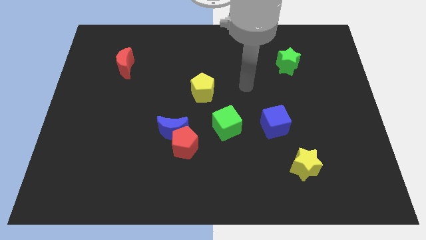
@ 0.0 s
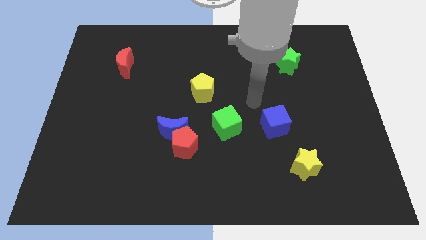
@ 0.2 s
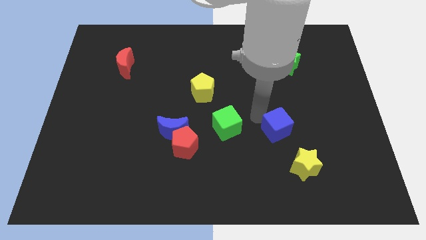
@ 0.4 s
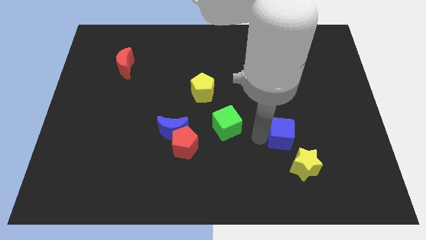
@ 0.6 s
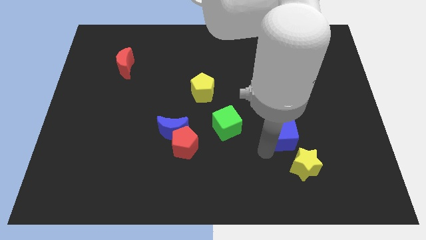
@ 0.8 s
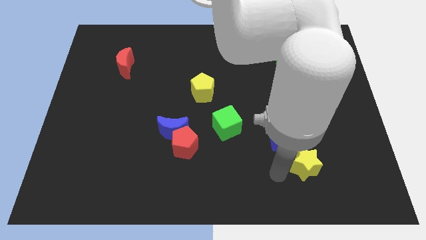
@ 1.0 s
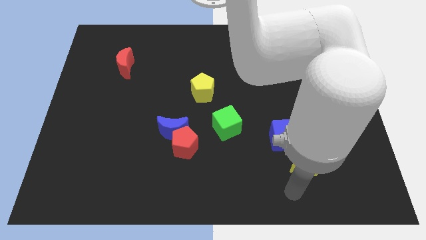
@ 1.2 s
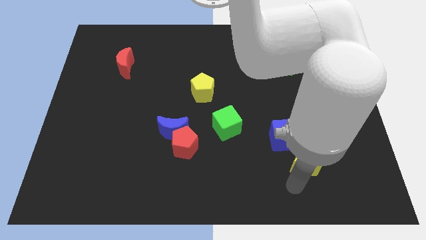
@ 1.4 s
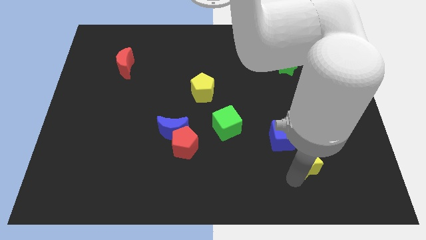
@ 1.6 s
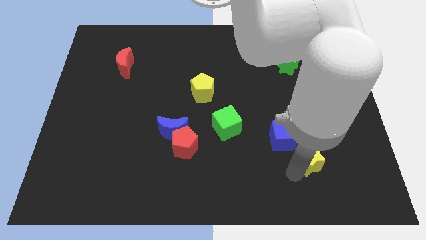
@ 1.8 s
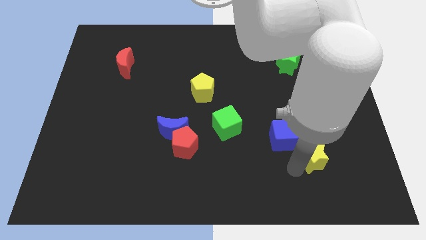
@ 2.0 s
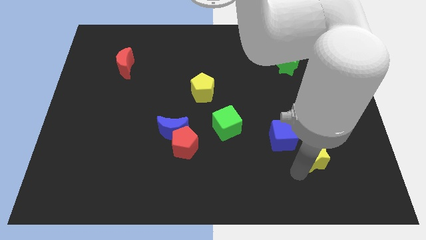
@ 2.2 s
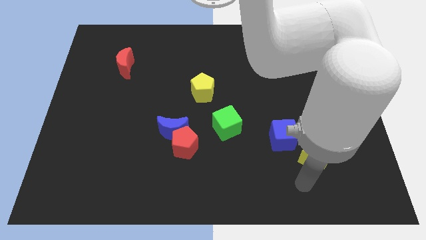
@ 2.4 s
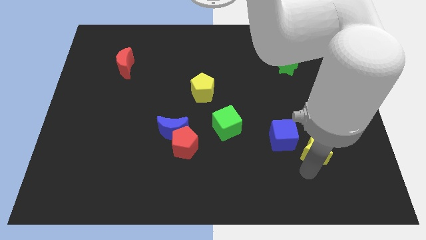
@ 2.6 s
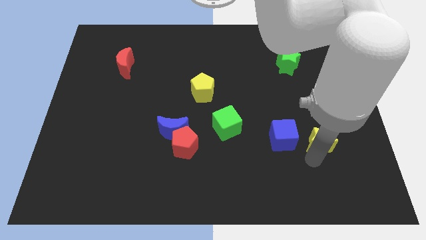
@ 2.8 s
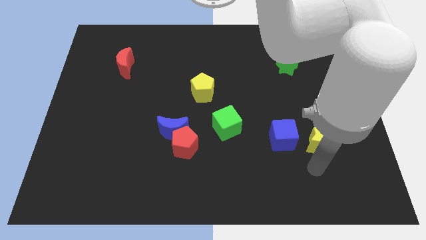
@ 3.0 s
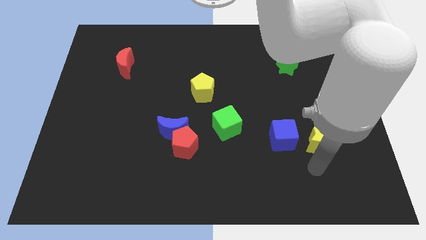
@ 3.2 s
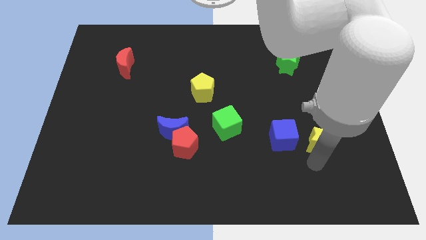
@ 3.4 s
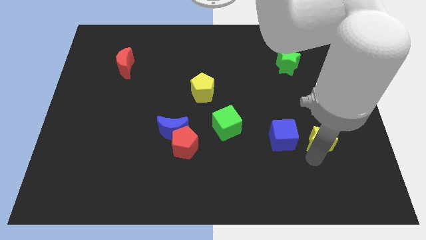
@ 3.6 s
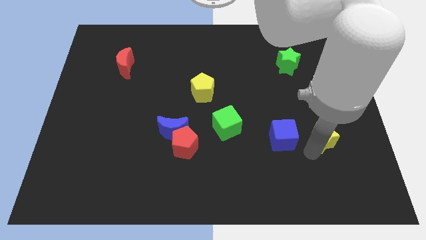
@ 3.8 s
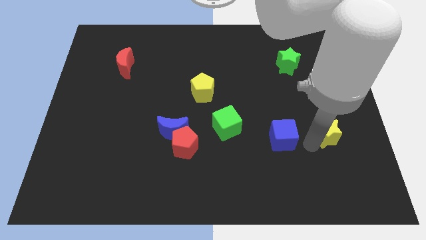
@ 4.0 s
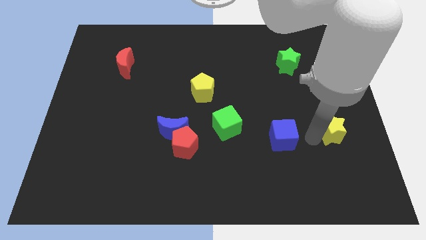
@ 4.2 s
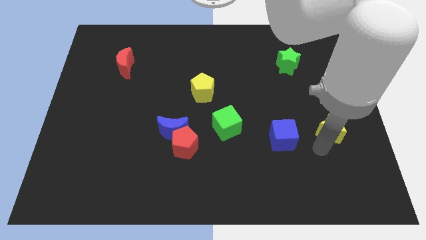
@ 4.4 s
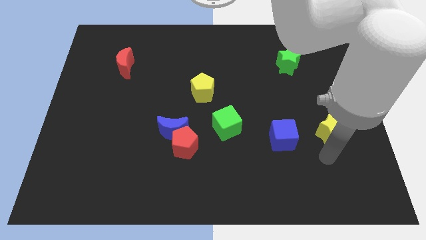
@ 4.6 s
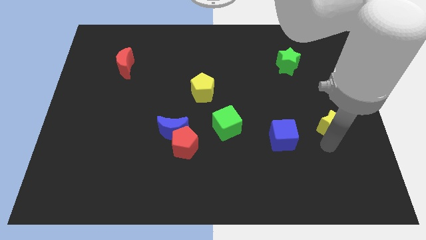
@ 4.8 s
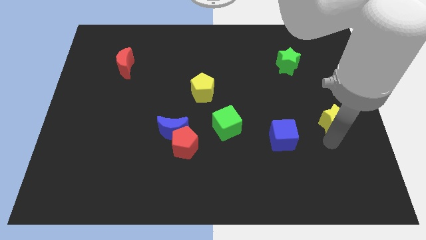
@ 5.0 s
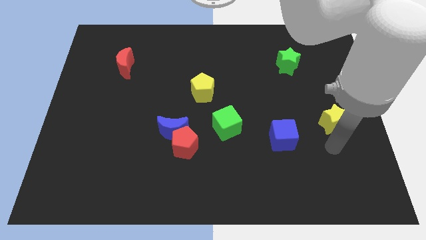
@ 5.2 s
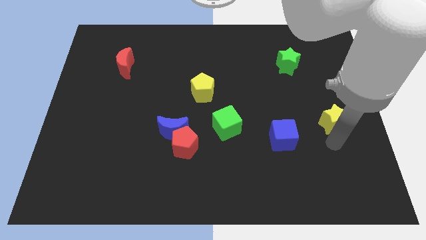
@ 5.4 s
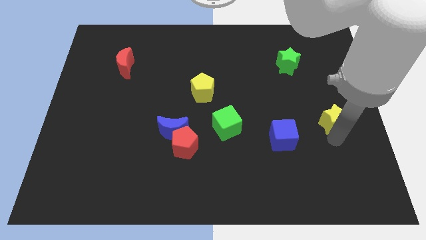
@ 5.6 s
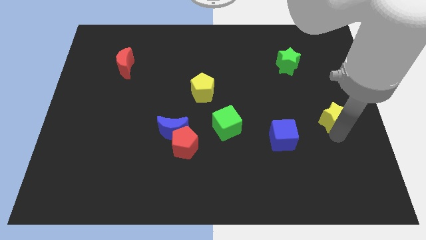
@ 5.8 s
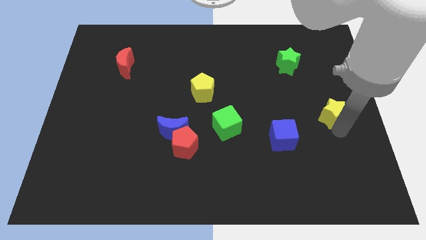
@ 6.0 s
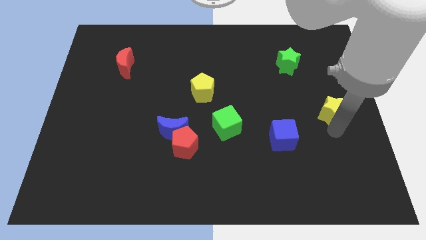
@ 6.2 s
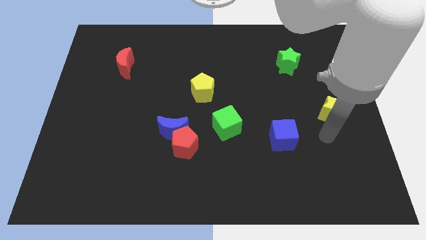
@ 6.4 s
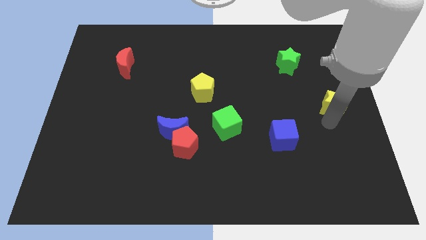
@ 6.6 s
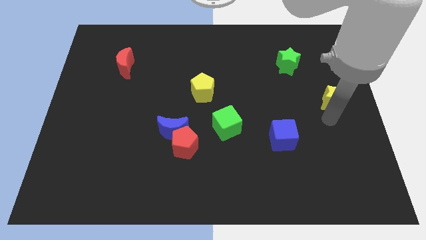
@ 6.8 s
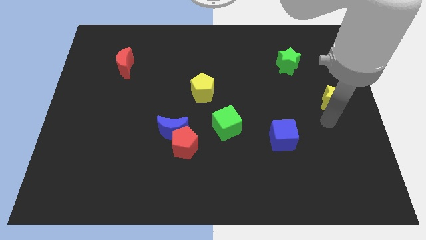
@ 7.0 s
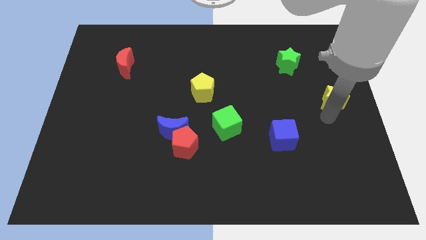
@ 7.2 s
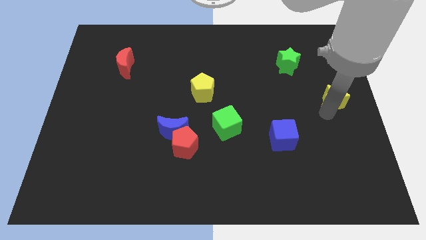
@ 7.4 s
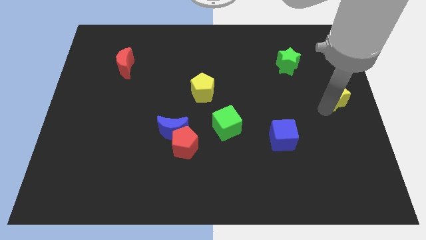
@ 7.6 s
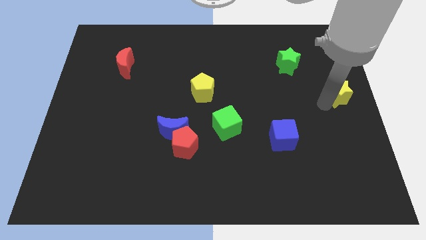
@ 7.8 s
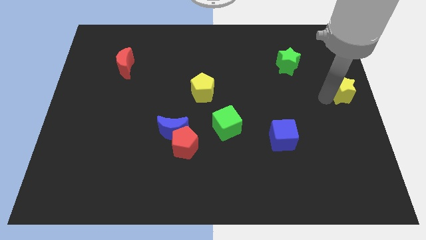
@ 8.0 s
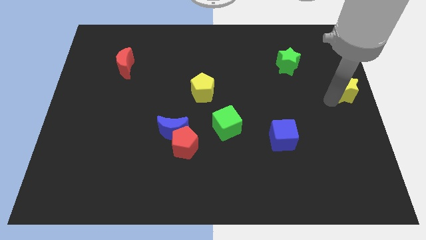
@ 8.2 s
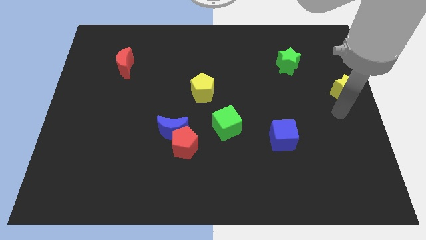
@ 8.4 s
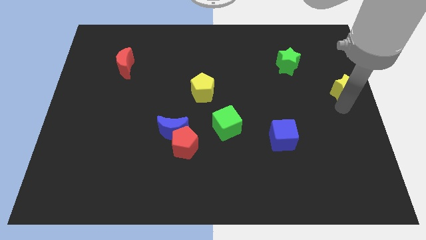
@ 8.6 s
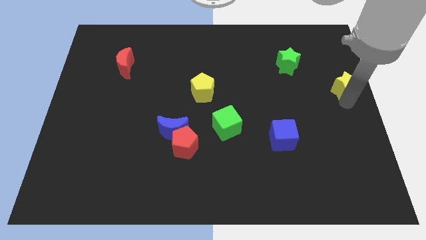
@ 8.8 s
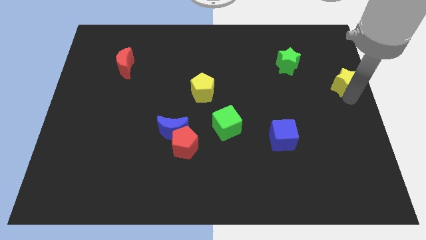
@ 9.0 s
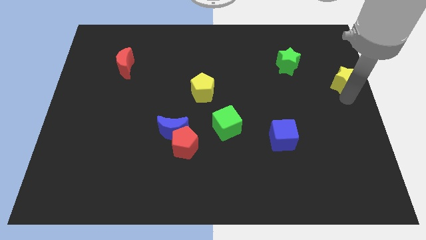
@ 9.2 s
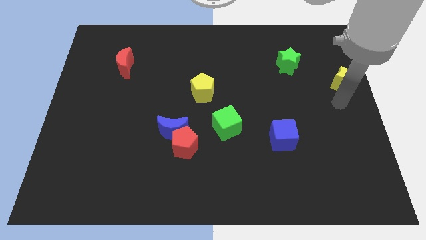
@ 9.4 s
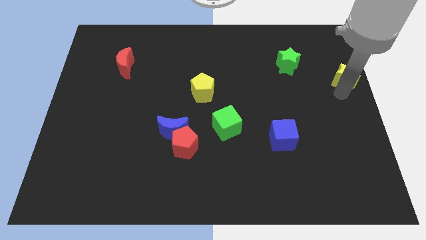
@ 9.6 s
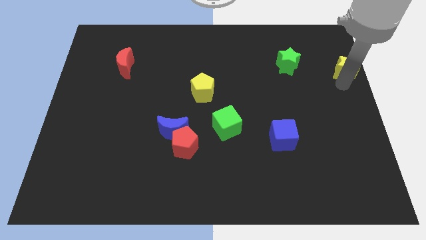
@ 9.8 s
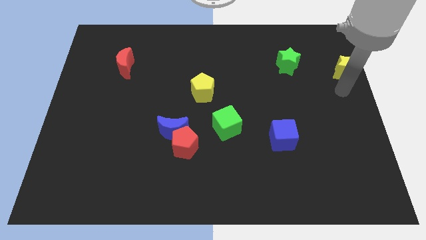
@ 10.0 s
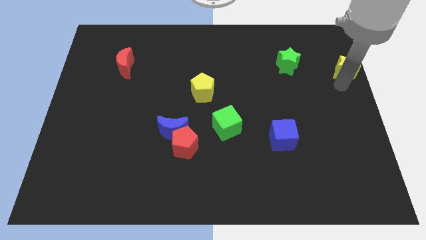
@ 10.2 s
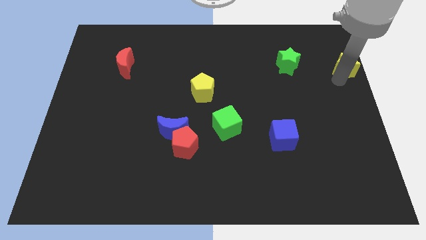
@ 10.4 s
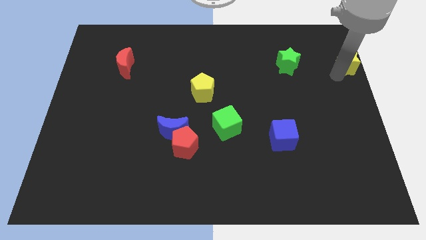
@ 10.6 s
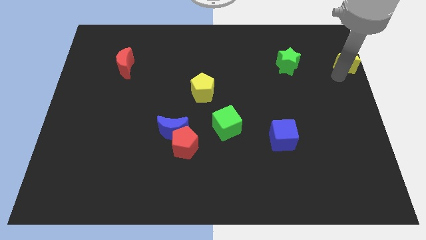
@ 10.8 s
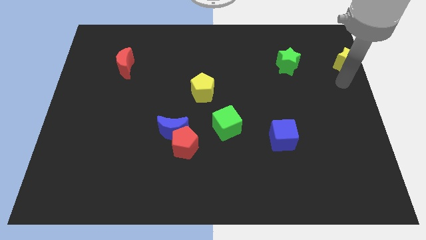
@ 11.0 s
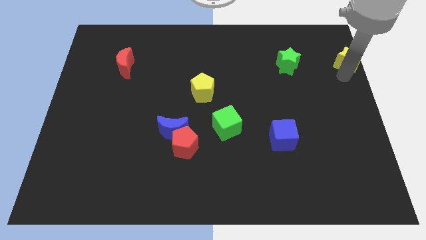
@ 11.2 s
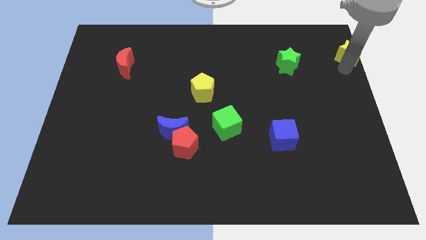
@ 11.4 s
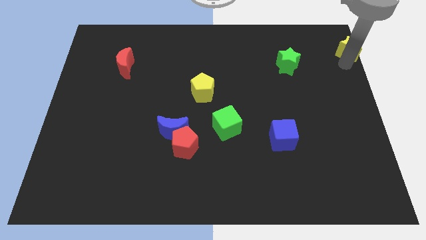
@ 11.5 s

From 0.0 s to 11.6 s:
put the yellow star to the top right corner

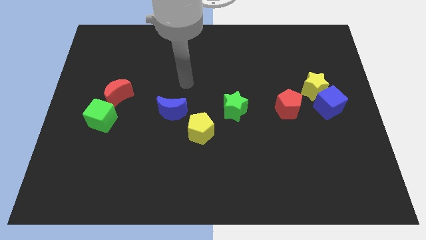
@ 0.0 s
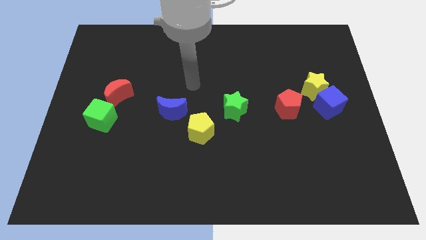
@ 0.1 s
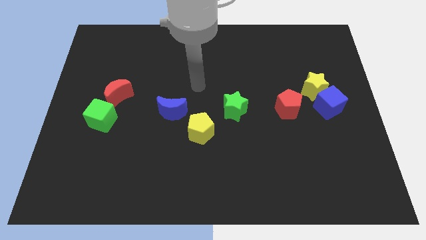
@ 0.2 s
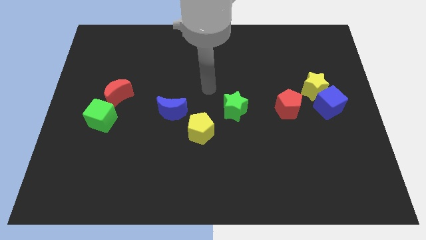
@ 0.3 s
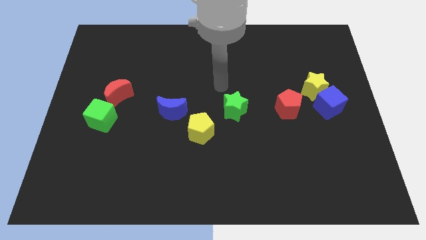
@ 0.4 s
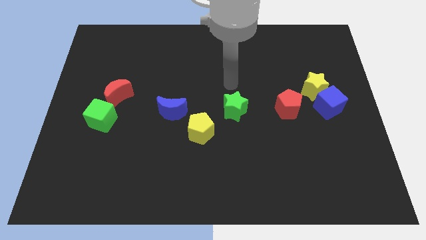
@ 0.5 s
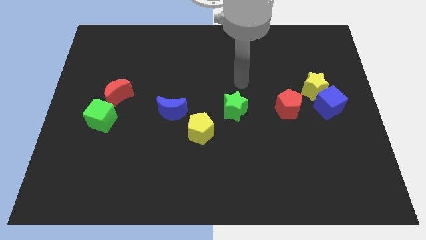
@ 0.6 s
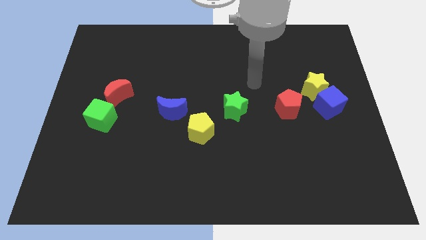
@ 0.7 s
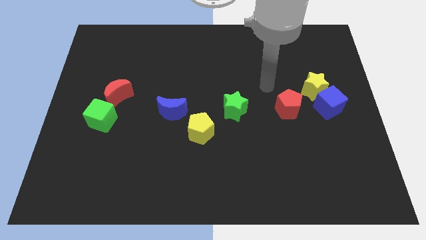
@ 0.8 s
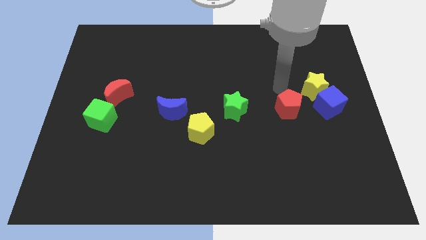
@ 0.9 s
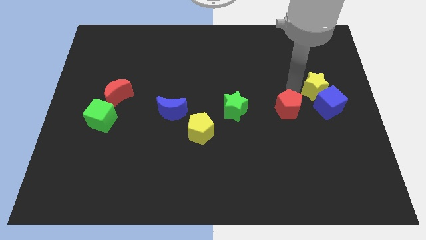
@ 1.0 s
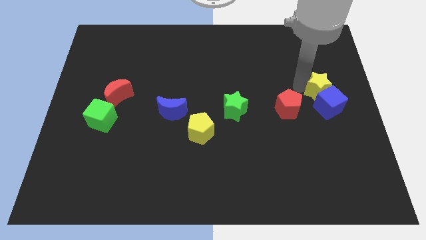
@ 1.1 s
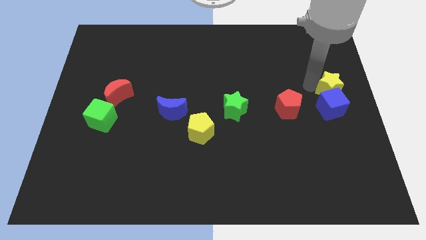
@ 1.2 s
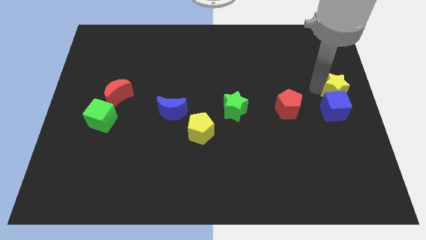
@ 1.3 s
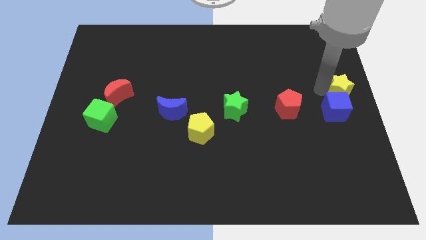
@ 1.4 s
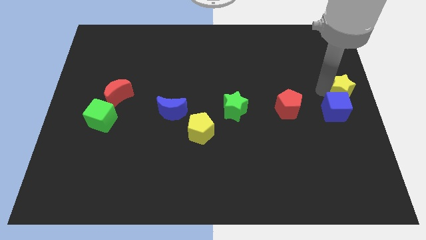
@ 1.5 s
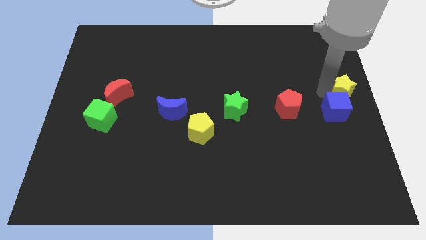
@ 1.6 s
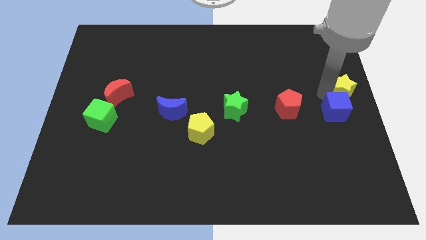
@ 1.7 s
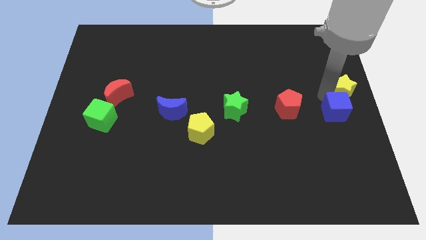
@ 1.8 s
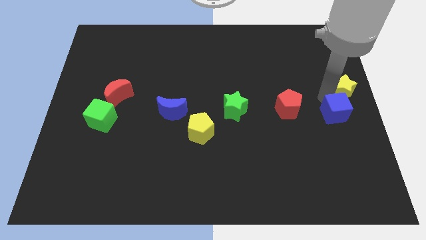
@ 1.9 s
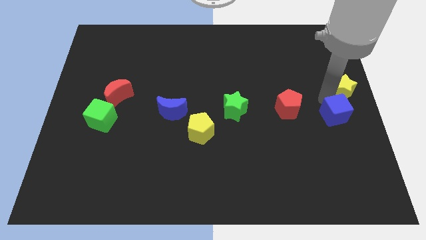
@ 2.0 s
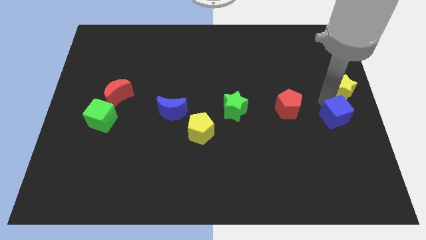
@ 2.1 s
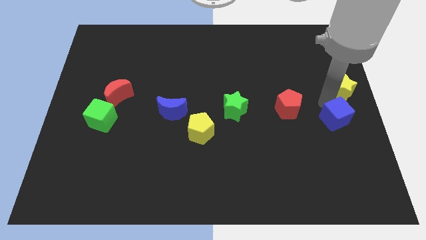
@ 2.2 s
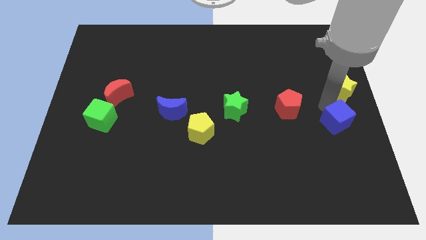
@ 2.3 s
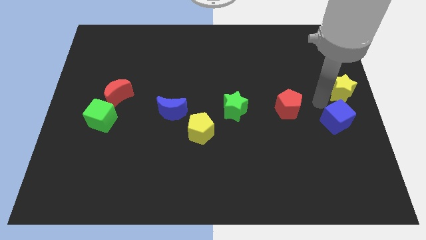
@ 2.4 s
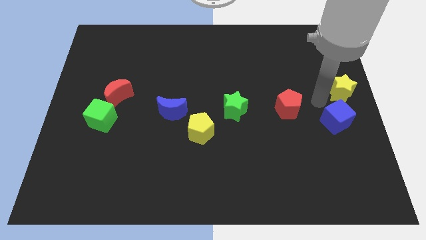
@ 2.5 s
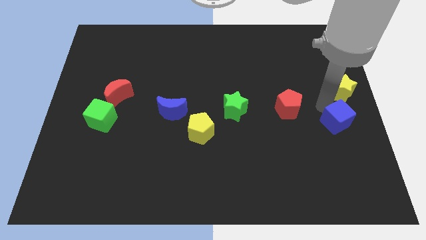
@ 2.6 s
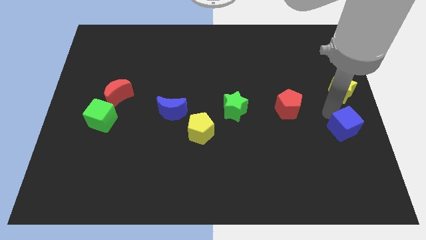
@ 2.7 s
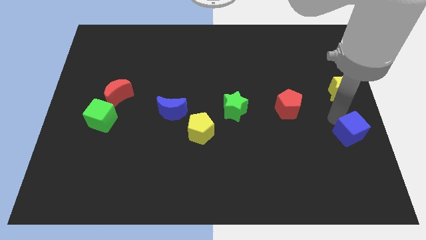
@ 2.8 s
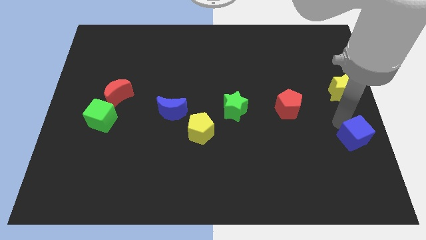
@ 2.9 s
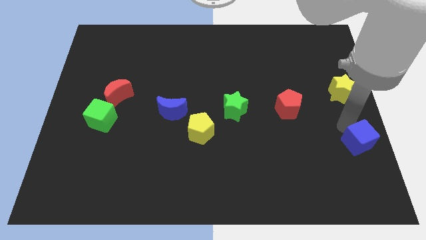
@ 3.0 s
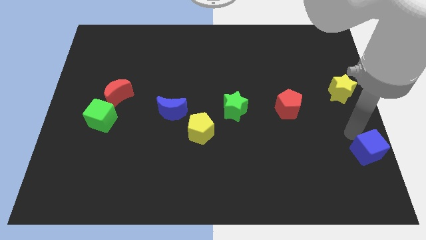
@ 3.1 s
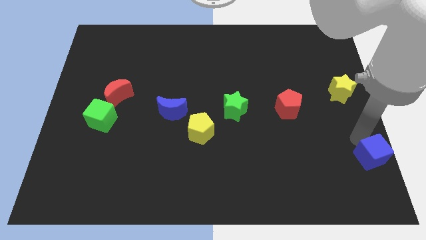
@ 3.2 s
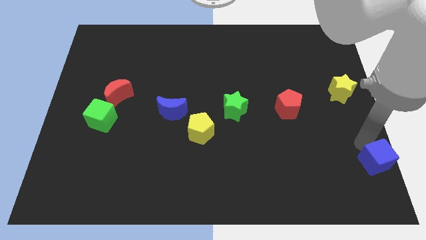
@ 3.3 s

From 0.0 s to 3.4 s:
put the blue cube to the lower right corner
